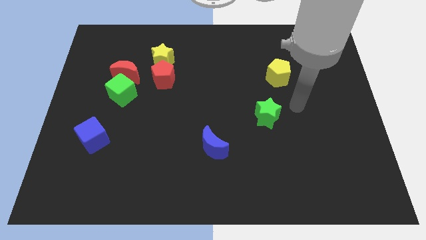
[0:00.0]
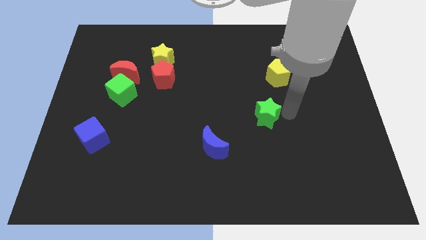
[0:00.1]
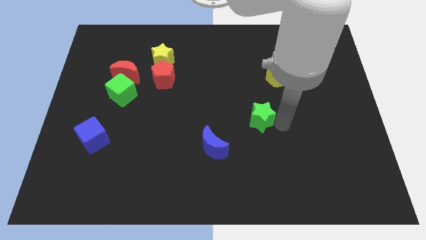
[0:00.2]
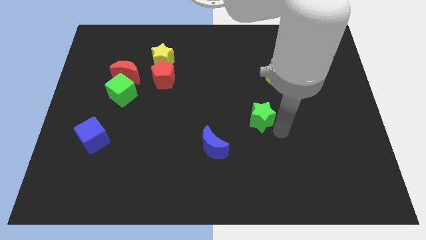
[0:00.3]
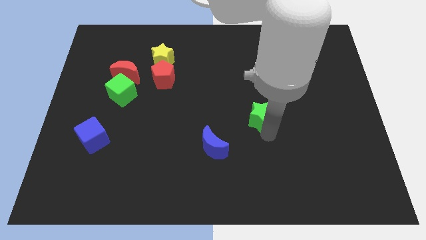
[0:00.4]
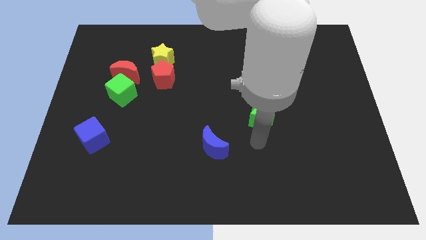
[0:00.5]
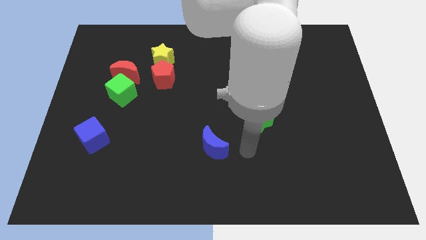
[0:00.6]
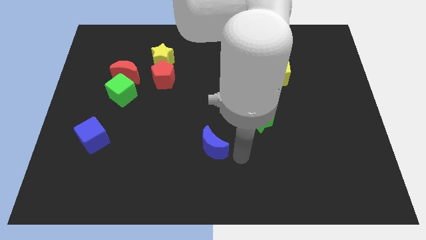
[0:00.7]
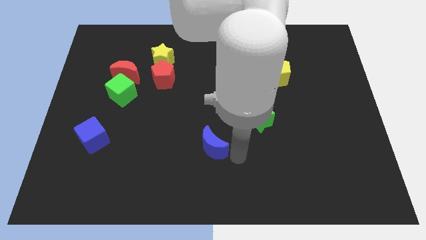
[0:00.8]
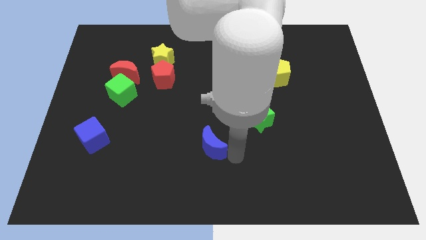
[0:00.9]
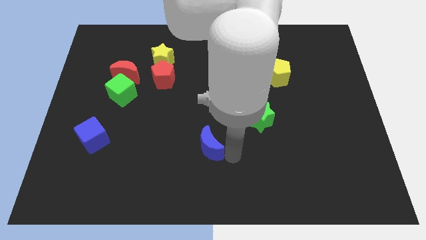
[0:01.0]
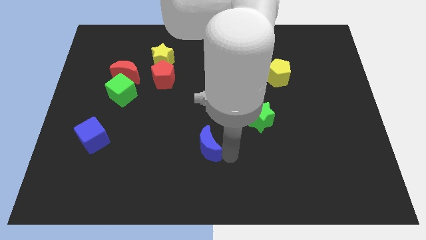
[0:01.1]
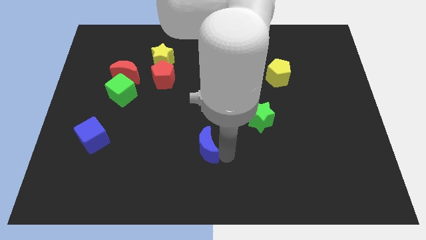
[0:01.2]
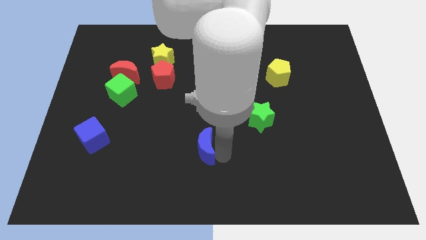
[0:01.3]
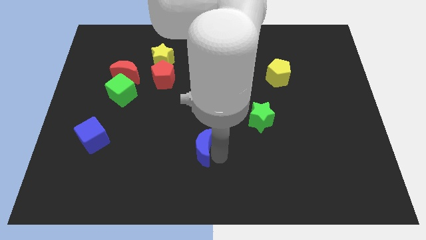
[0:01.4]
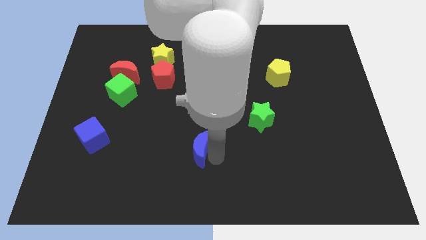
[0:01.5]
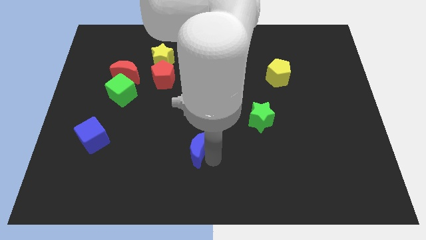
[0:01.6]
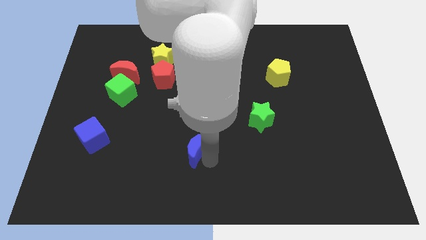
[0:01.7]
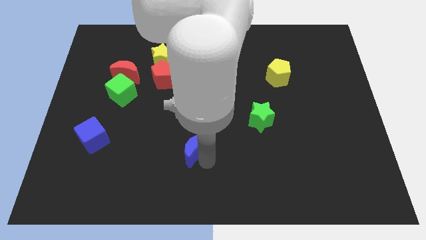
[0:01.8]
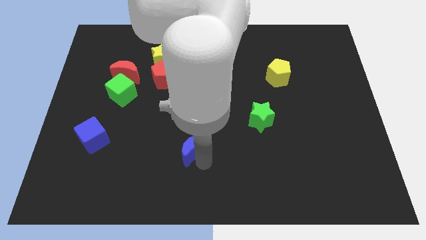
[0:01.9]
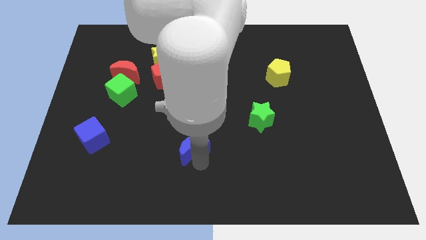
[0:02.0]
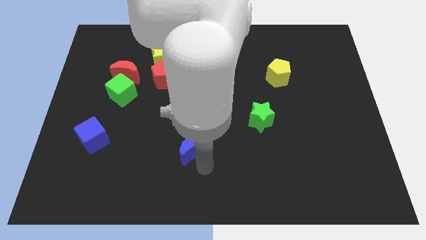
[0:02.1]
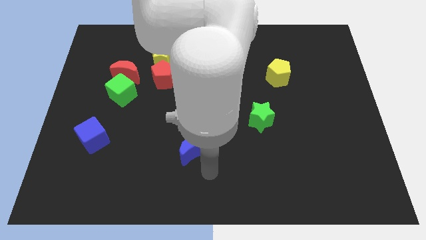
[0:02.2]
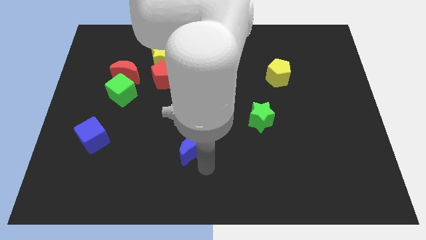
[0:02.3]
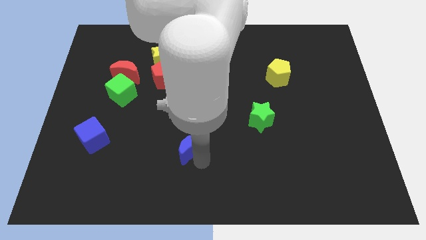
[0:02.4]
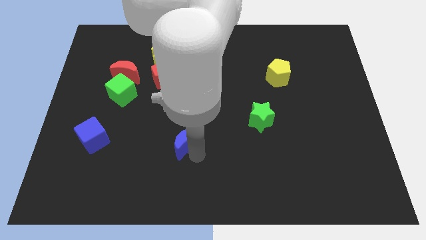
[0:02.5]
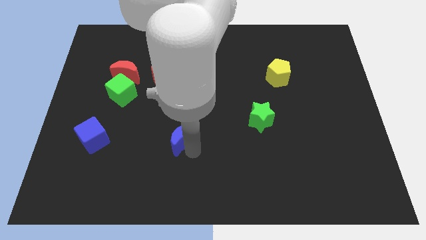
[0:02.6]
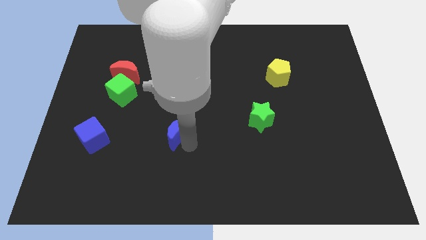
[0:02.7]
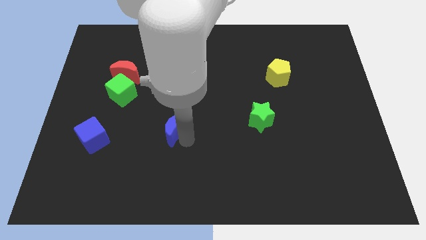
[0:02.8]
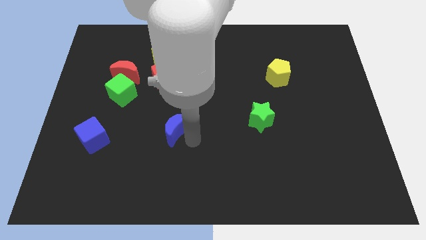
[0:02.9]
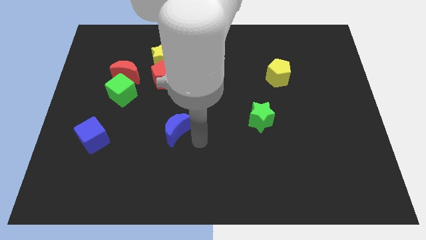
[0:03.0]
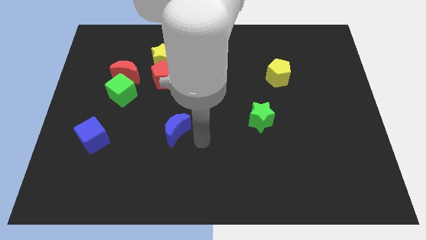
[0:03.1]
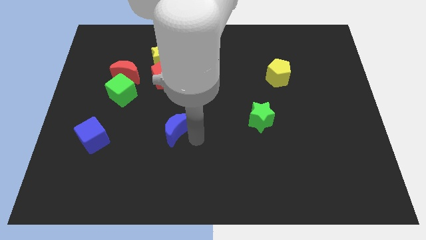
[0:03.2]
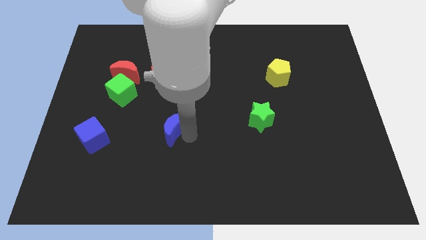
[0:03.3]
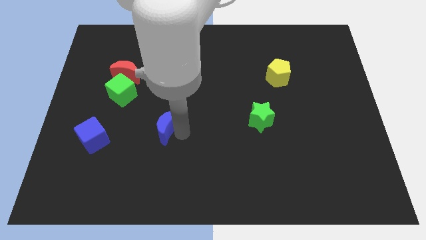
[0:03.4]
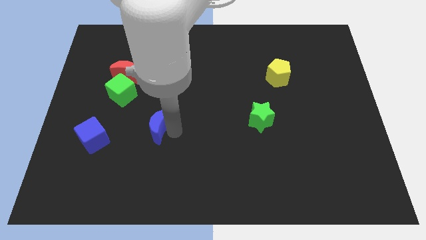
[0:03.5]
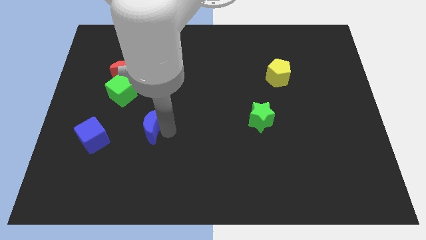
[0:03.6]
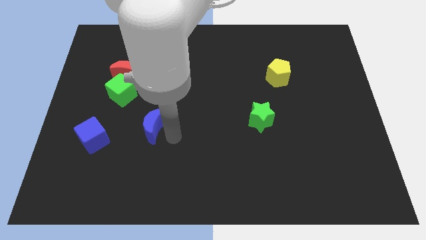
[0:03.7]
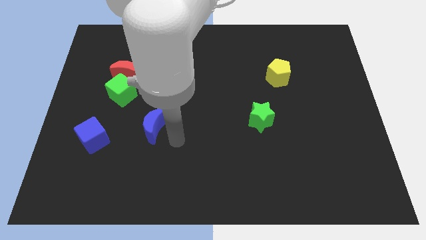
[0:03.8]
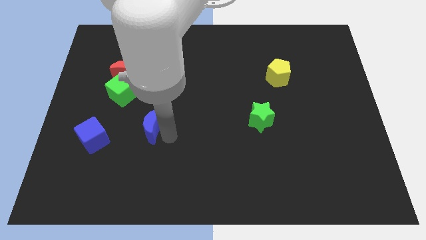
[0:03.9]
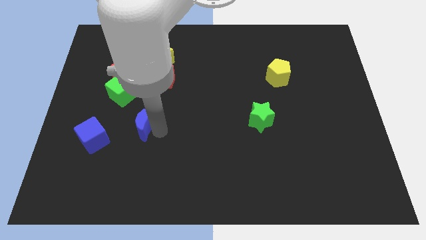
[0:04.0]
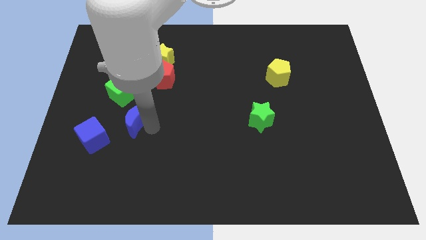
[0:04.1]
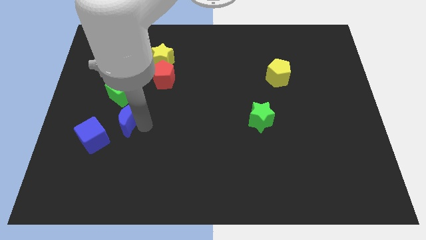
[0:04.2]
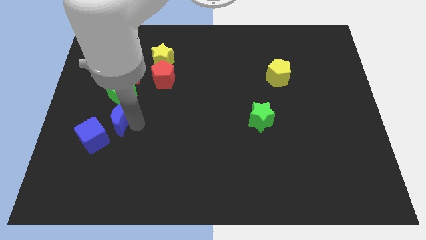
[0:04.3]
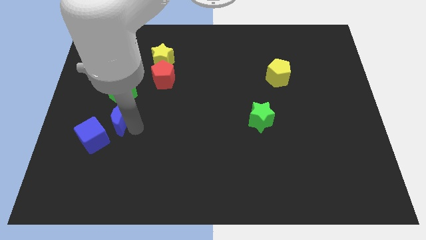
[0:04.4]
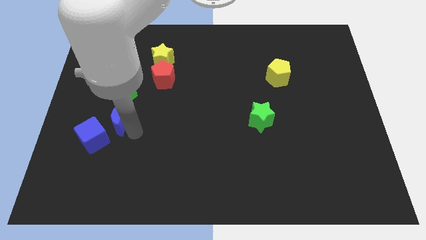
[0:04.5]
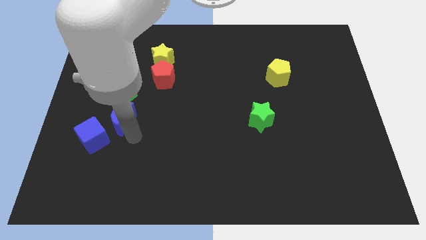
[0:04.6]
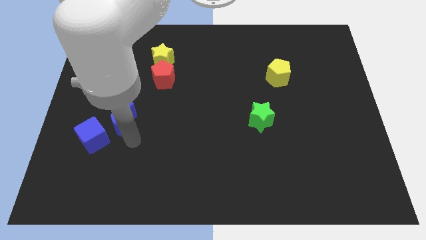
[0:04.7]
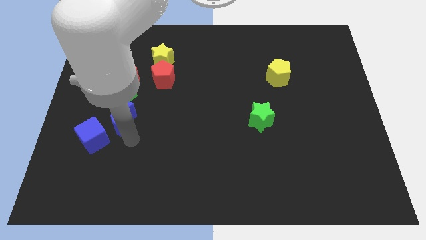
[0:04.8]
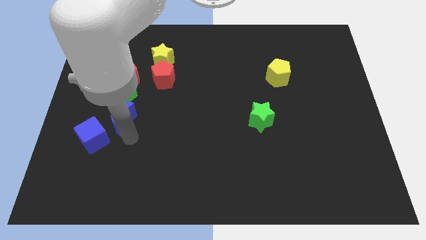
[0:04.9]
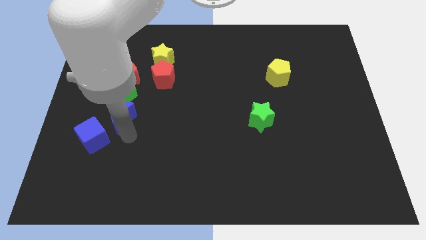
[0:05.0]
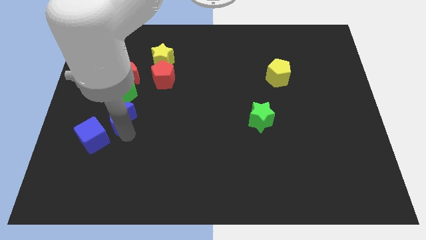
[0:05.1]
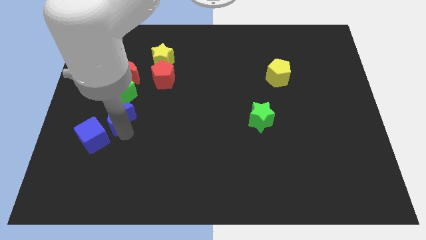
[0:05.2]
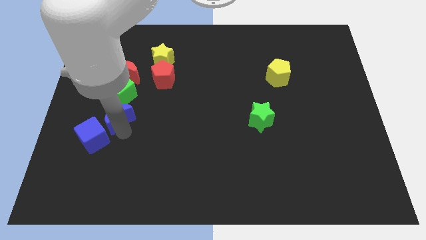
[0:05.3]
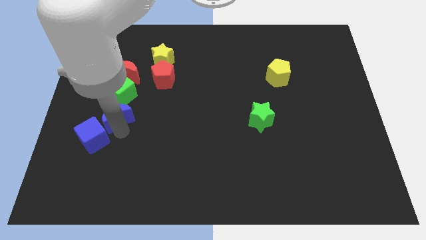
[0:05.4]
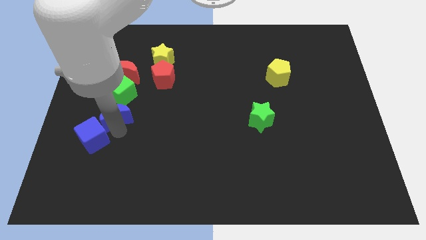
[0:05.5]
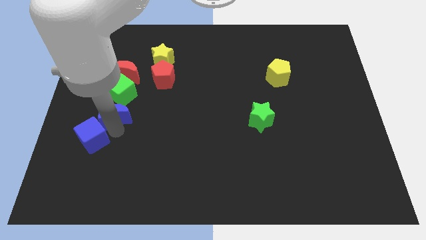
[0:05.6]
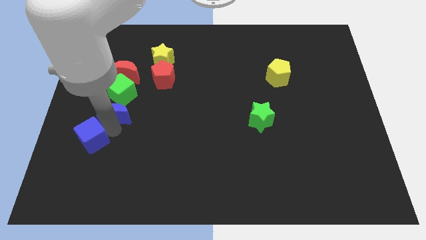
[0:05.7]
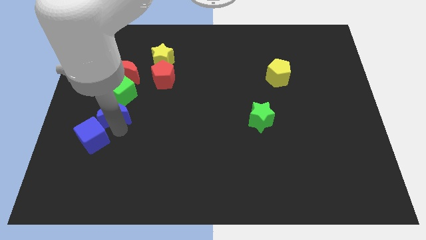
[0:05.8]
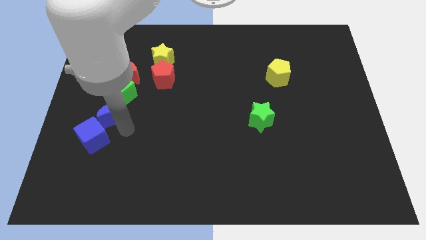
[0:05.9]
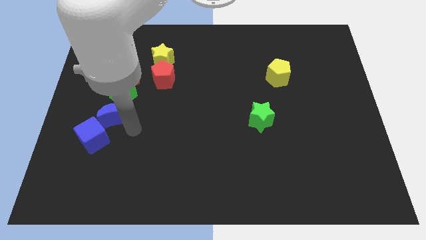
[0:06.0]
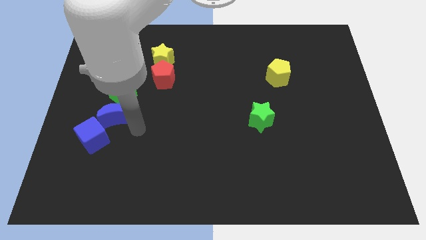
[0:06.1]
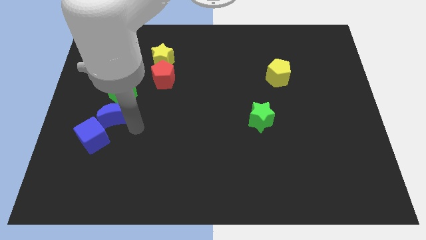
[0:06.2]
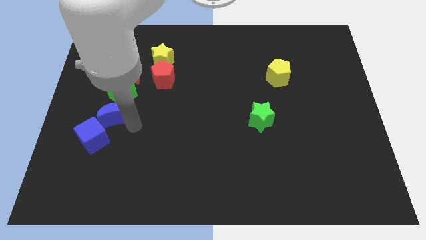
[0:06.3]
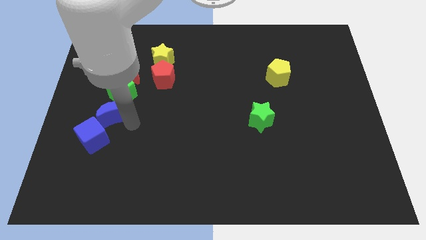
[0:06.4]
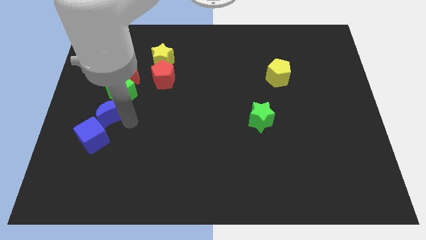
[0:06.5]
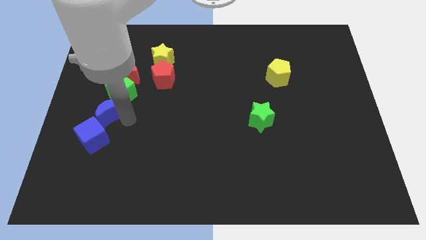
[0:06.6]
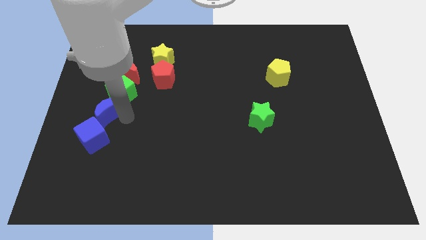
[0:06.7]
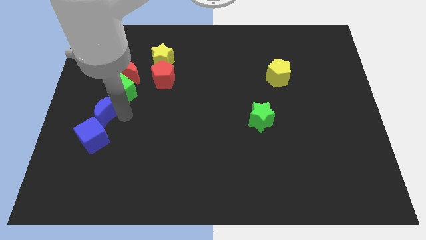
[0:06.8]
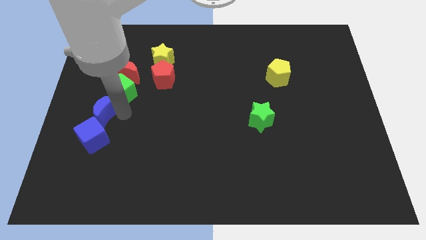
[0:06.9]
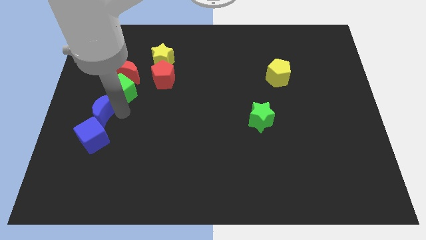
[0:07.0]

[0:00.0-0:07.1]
put the blue moon to the center left
